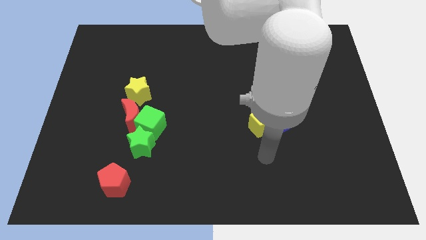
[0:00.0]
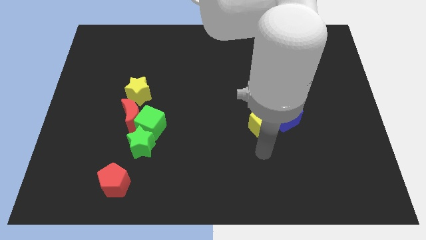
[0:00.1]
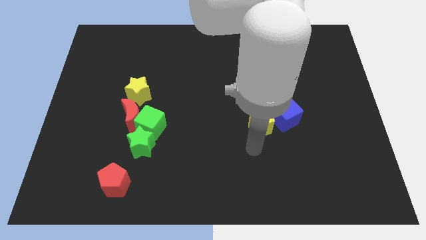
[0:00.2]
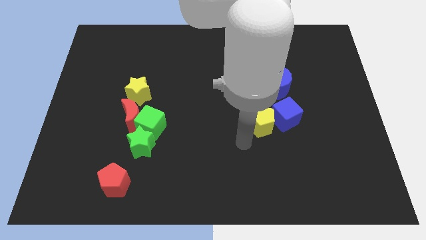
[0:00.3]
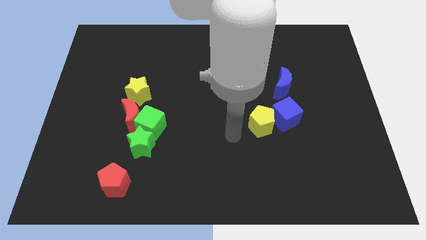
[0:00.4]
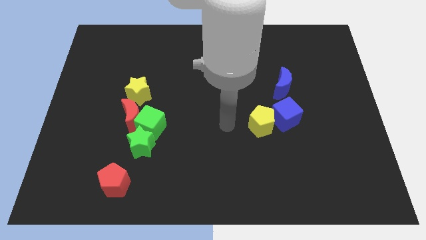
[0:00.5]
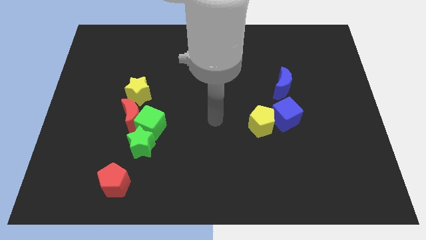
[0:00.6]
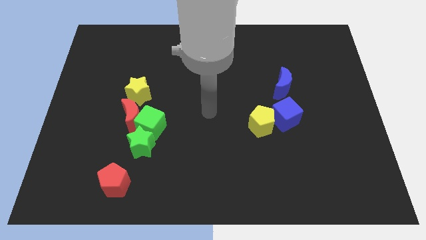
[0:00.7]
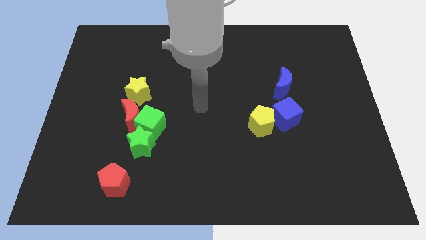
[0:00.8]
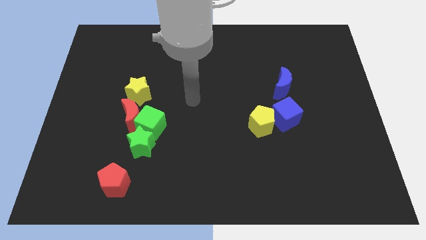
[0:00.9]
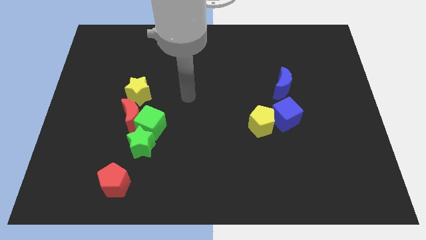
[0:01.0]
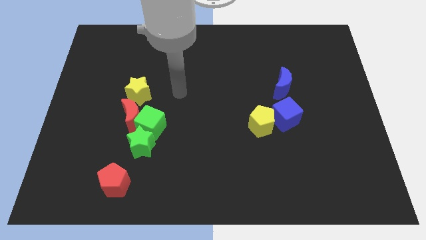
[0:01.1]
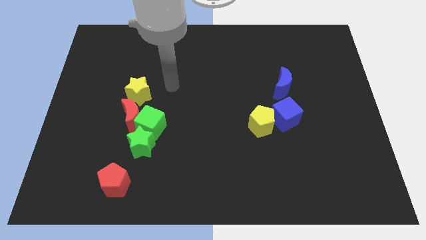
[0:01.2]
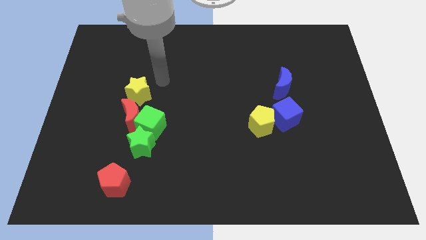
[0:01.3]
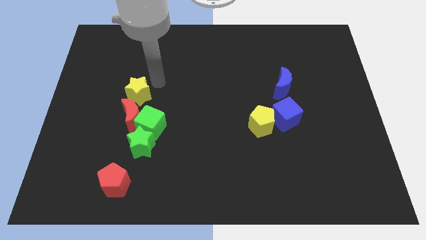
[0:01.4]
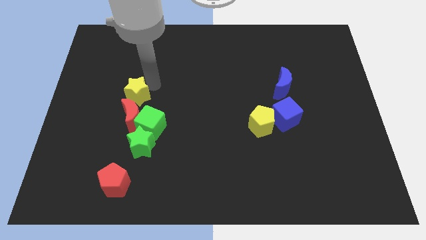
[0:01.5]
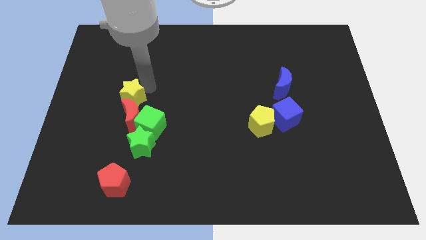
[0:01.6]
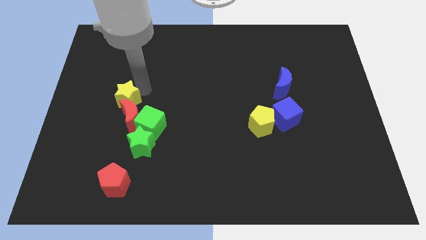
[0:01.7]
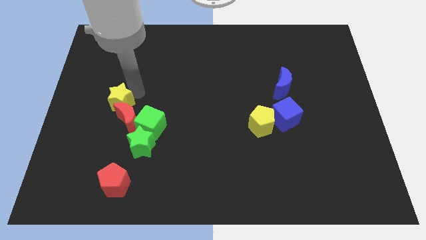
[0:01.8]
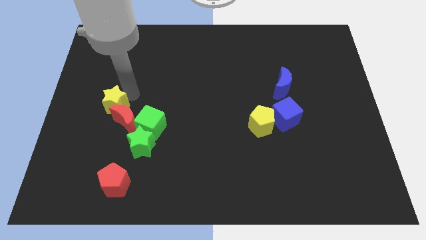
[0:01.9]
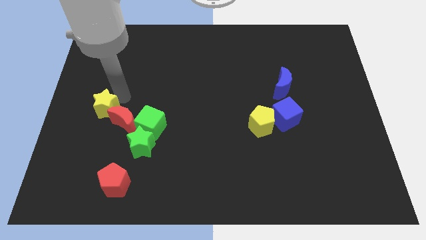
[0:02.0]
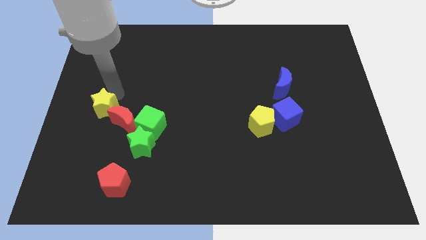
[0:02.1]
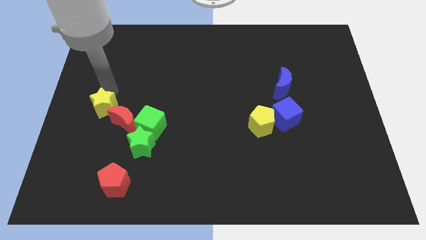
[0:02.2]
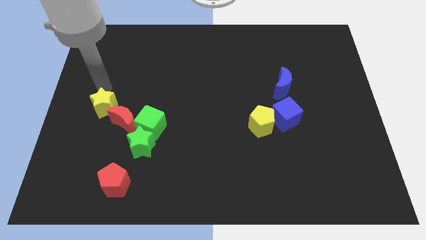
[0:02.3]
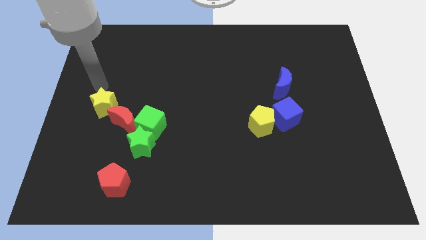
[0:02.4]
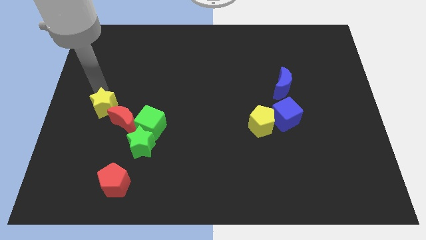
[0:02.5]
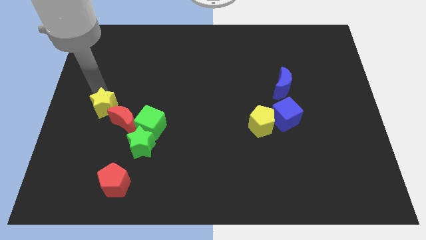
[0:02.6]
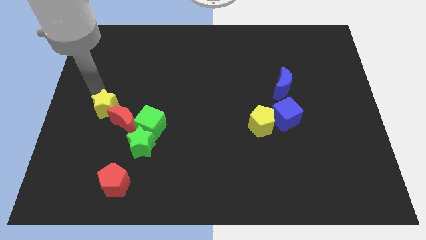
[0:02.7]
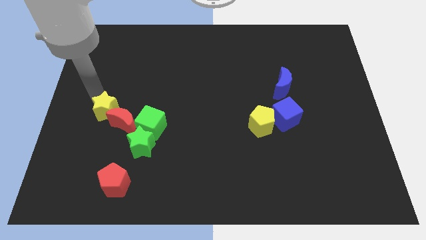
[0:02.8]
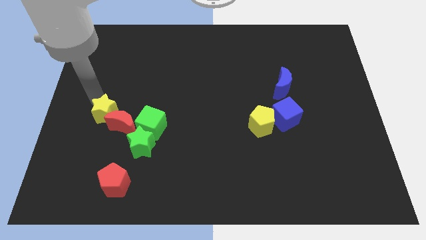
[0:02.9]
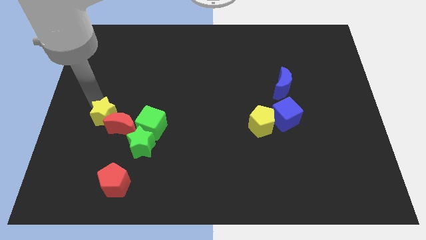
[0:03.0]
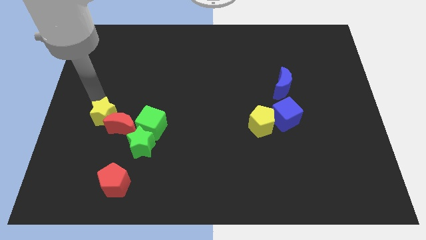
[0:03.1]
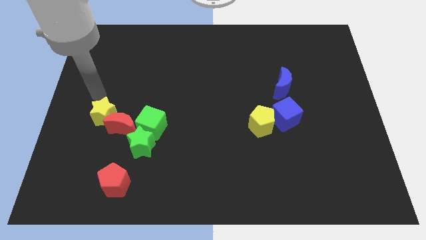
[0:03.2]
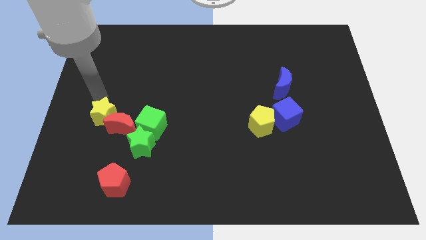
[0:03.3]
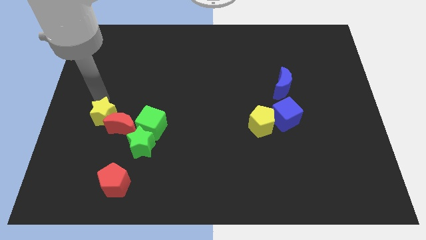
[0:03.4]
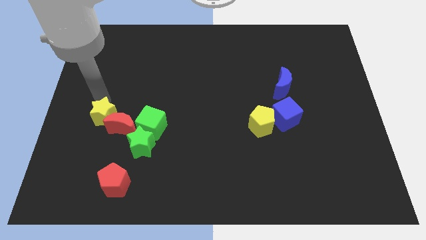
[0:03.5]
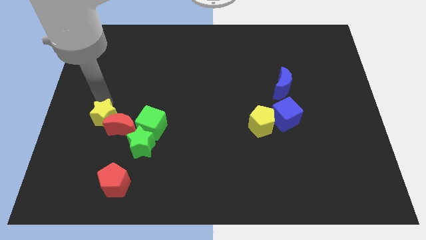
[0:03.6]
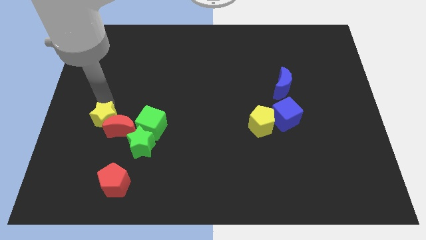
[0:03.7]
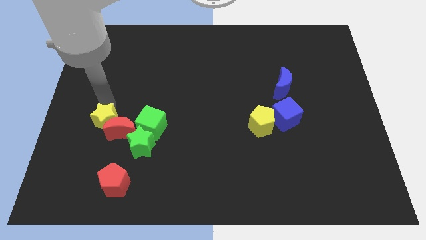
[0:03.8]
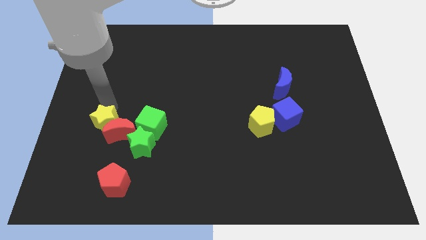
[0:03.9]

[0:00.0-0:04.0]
slightly slide the yellow star down

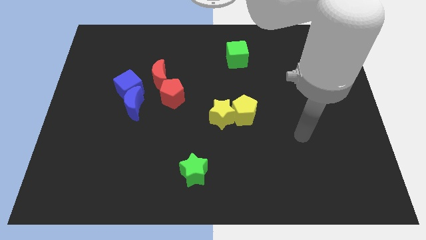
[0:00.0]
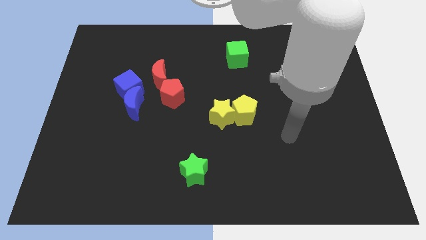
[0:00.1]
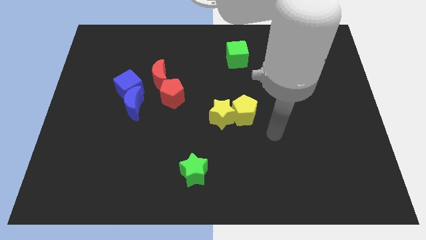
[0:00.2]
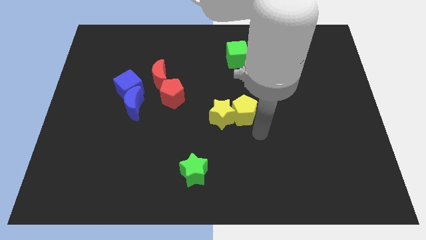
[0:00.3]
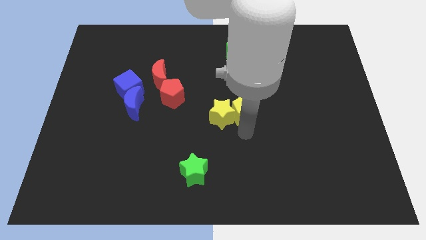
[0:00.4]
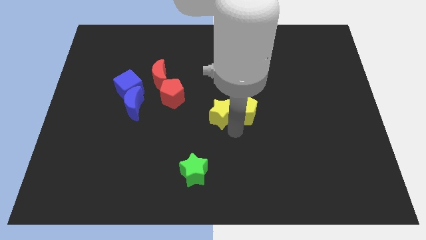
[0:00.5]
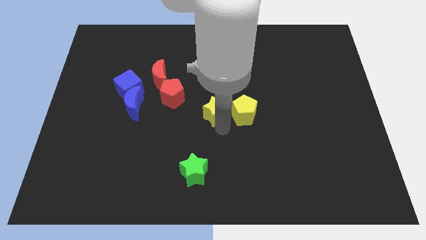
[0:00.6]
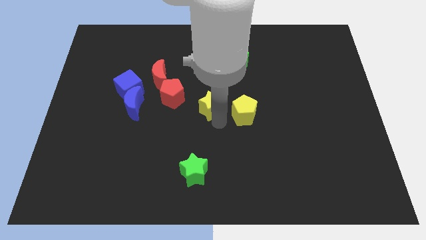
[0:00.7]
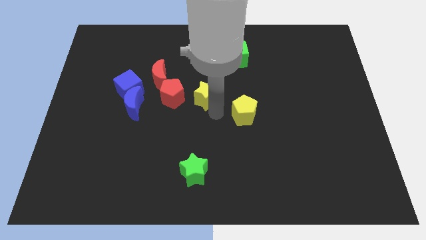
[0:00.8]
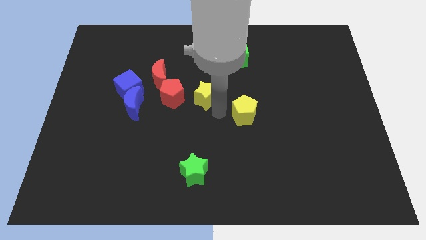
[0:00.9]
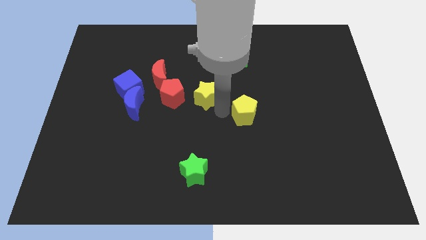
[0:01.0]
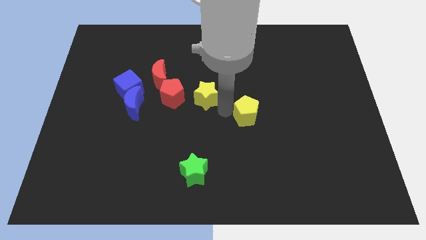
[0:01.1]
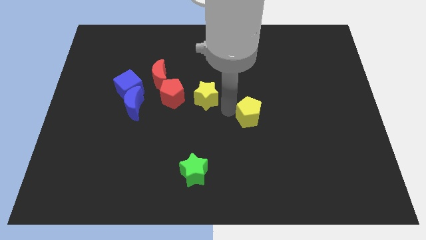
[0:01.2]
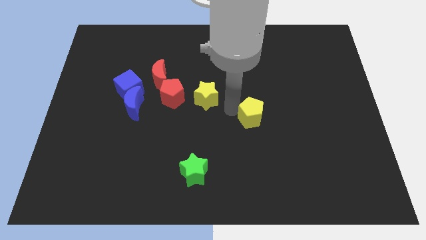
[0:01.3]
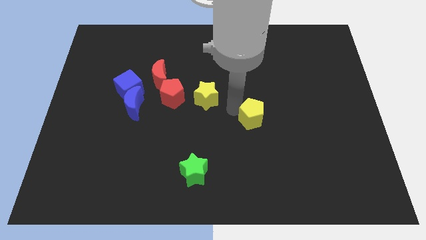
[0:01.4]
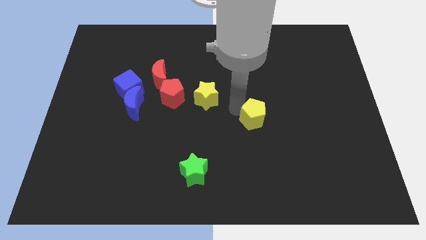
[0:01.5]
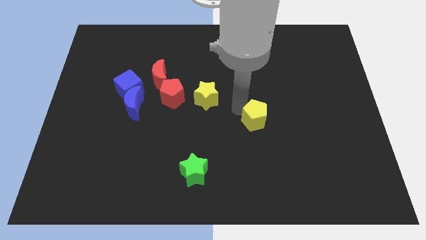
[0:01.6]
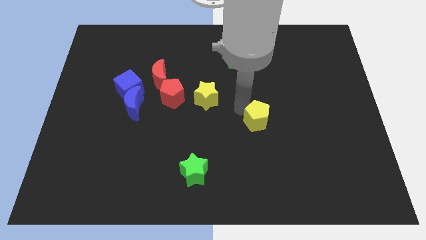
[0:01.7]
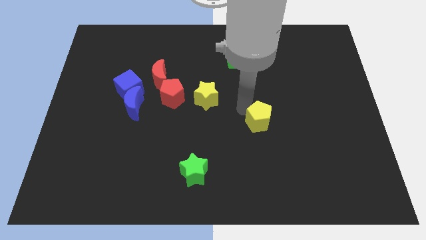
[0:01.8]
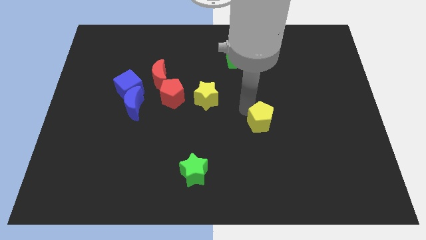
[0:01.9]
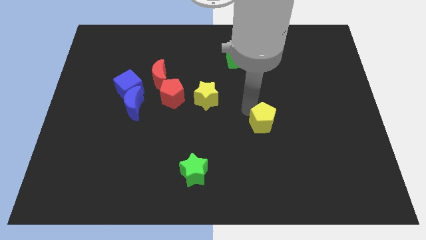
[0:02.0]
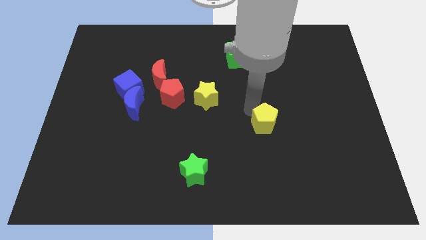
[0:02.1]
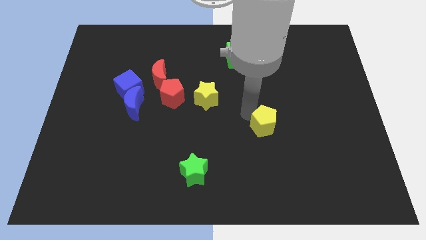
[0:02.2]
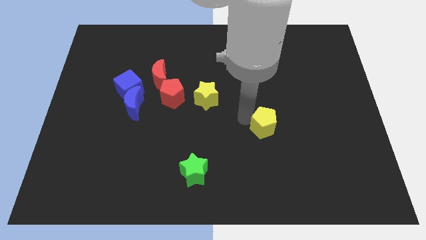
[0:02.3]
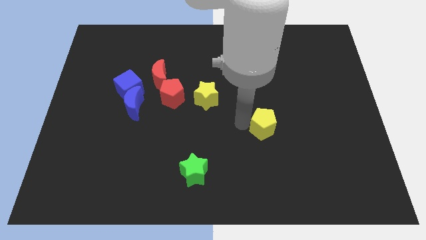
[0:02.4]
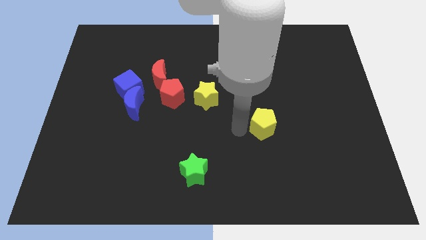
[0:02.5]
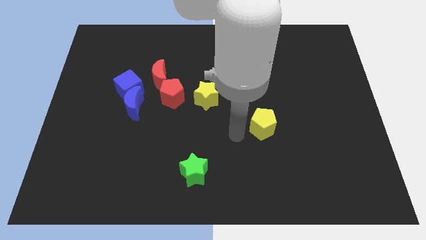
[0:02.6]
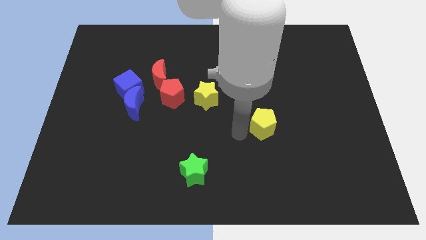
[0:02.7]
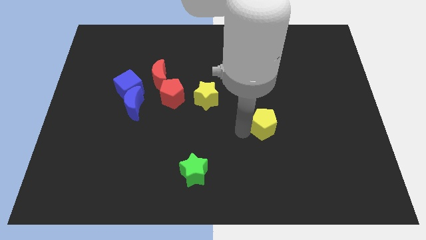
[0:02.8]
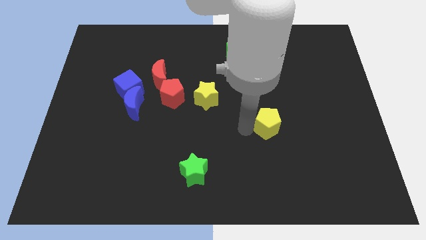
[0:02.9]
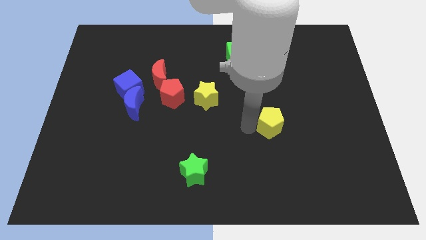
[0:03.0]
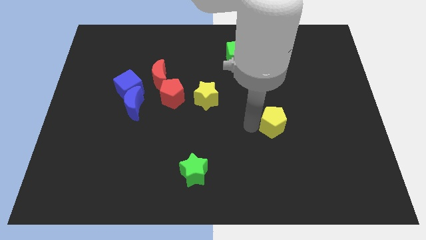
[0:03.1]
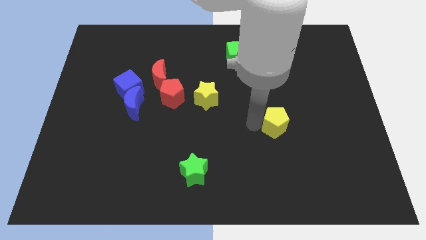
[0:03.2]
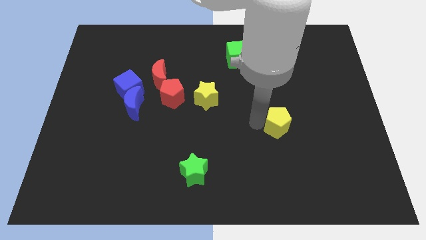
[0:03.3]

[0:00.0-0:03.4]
slide the yellow pentagon a bit to the right

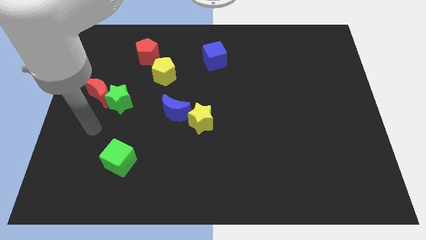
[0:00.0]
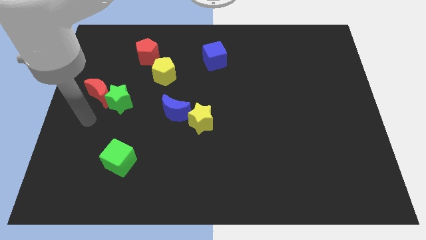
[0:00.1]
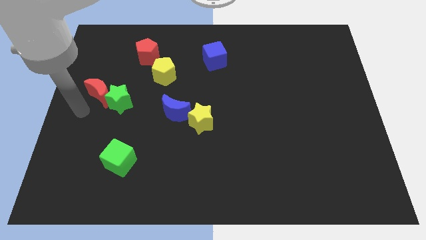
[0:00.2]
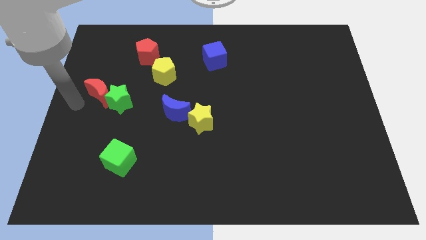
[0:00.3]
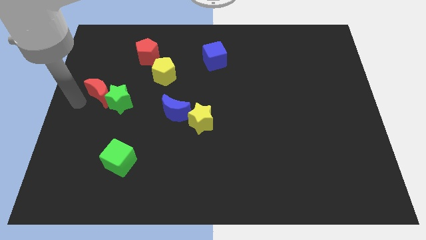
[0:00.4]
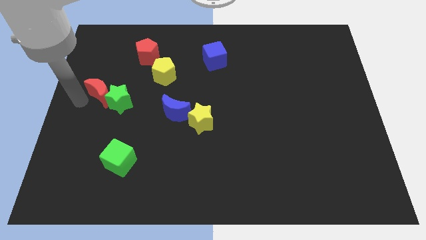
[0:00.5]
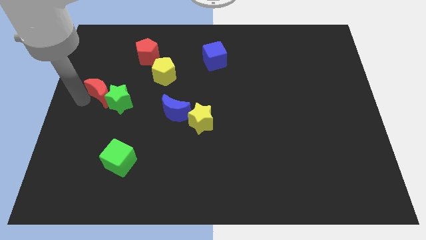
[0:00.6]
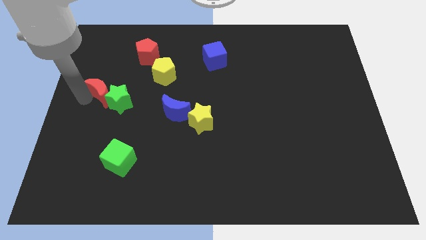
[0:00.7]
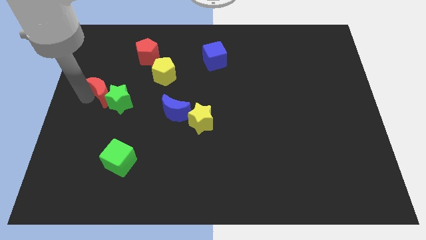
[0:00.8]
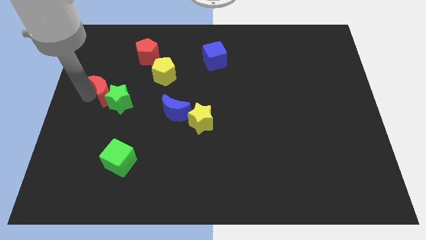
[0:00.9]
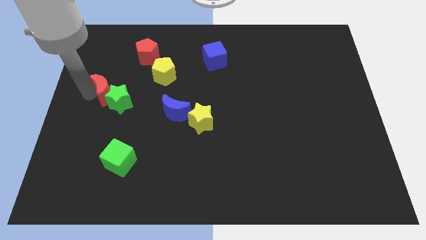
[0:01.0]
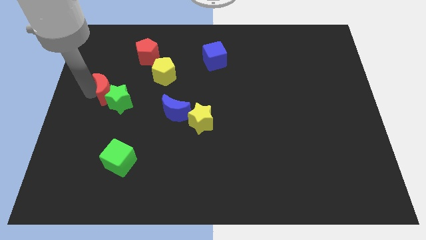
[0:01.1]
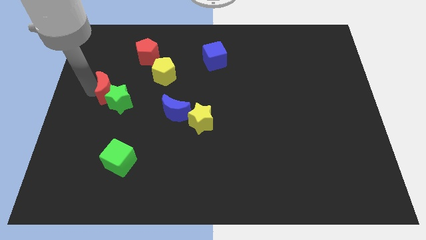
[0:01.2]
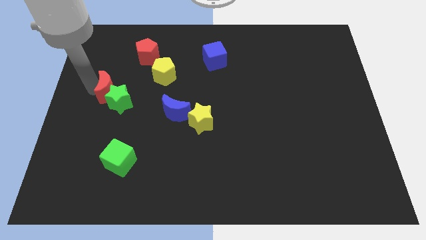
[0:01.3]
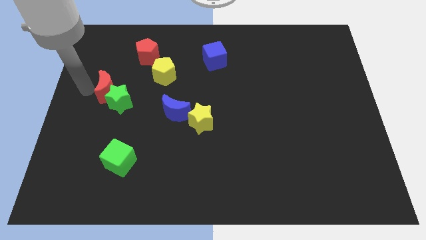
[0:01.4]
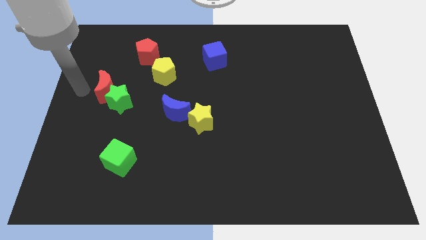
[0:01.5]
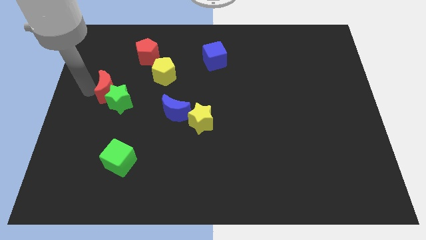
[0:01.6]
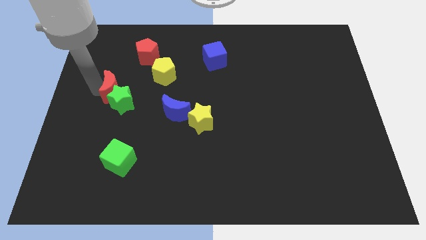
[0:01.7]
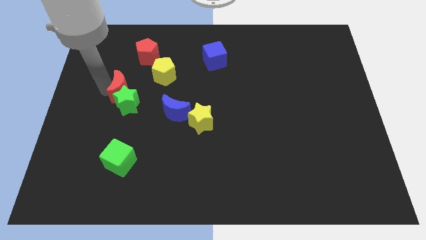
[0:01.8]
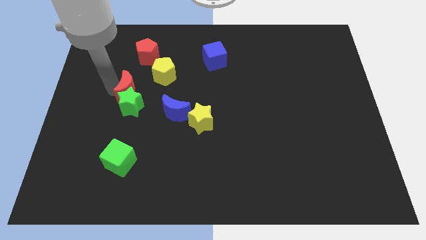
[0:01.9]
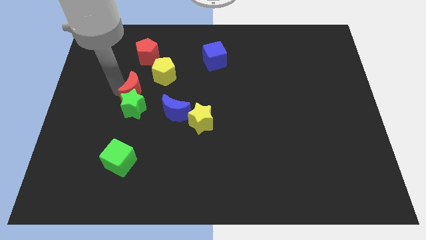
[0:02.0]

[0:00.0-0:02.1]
push the red moon right slightly
